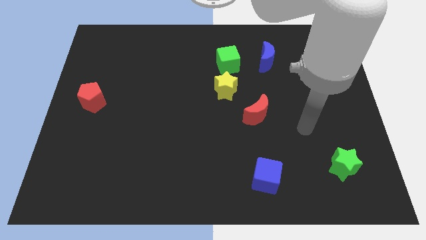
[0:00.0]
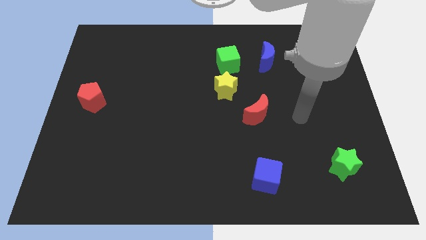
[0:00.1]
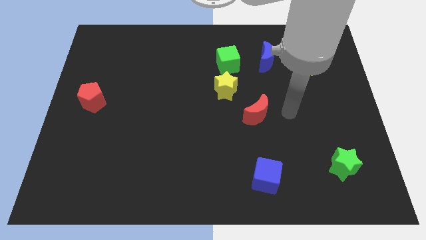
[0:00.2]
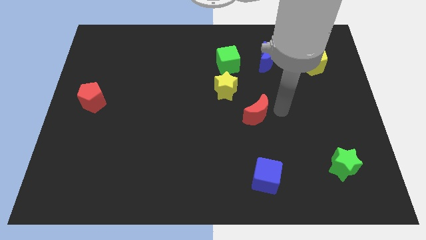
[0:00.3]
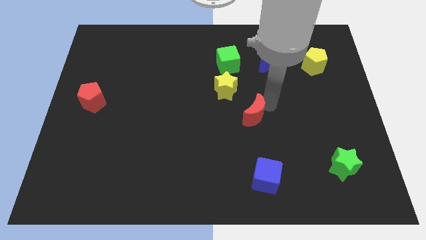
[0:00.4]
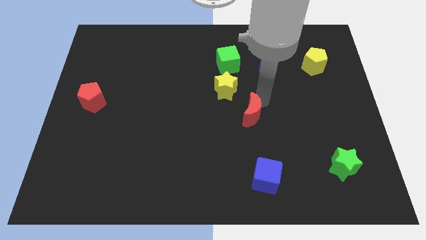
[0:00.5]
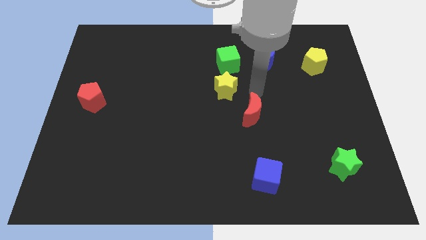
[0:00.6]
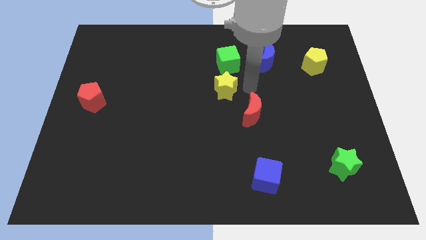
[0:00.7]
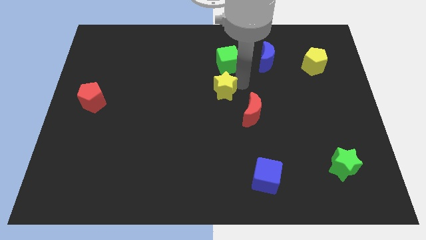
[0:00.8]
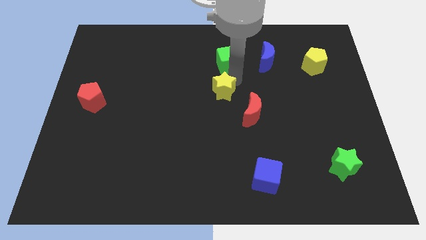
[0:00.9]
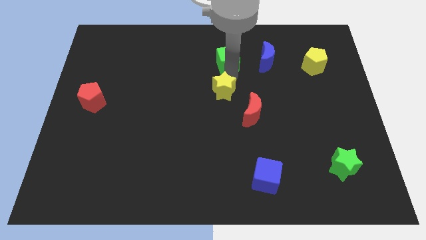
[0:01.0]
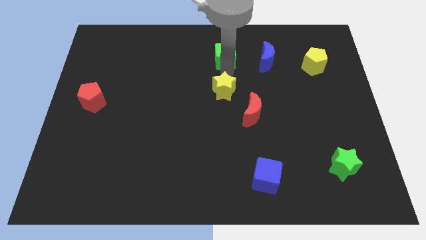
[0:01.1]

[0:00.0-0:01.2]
move the yellow star away from the green cube

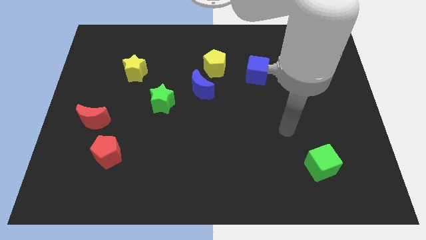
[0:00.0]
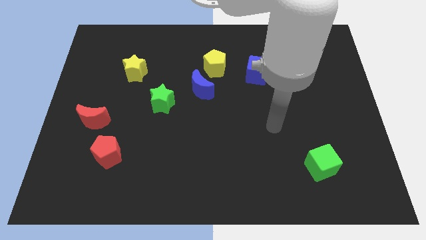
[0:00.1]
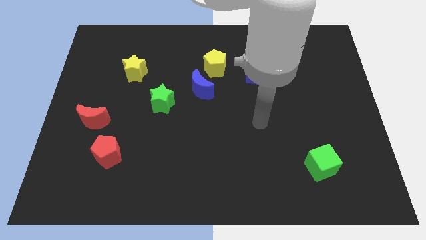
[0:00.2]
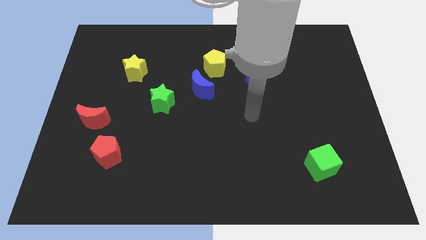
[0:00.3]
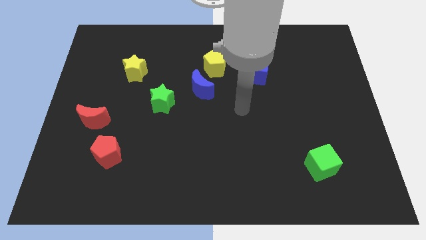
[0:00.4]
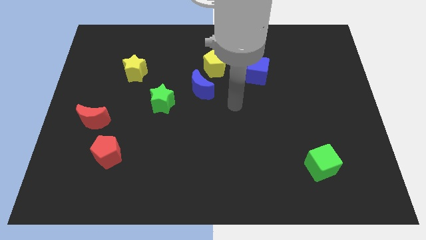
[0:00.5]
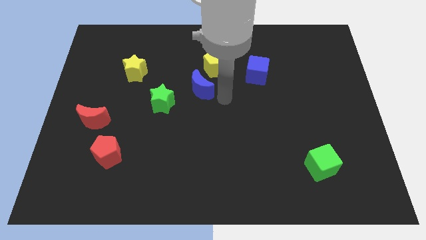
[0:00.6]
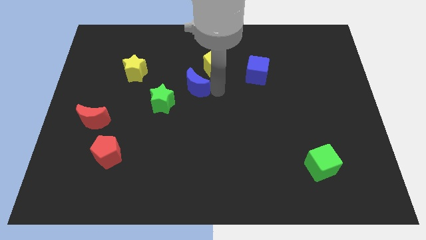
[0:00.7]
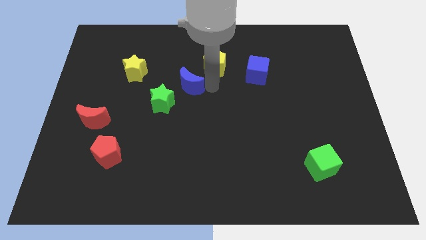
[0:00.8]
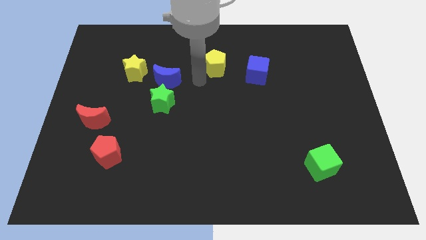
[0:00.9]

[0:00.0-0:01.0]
pull the yellow pentagon apart from the blue moon

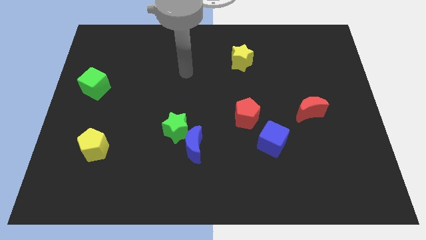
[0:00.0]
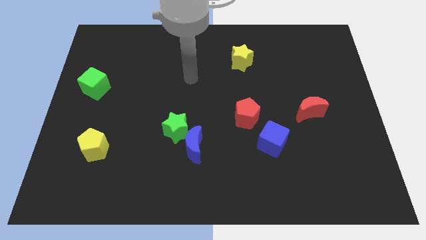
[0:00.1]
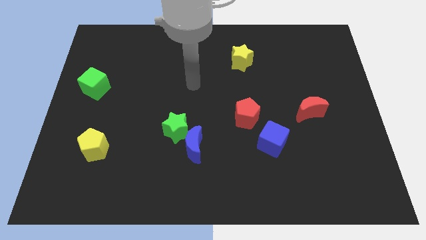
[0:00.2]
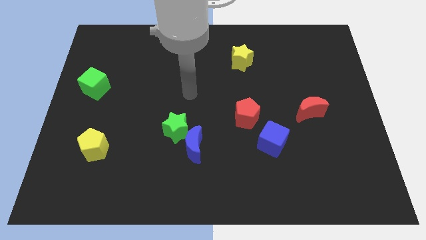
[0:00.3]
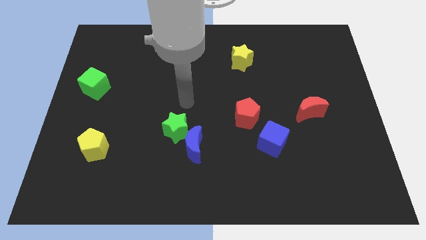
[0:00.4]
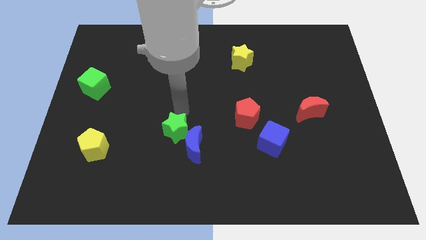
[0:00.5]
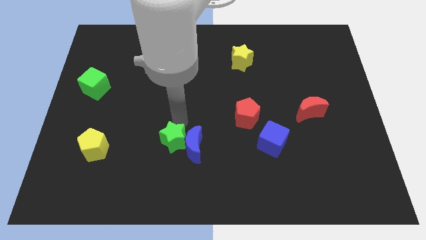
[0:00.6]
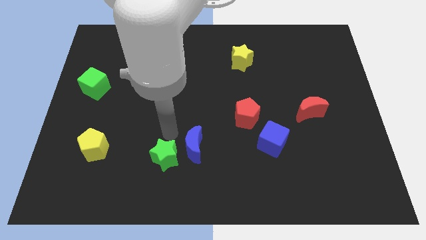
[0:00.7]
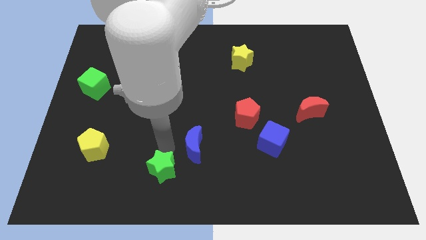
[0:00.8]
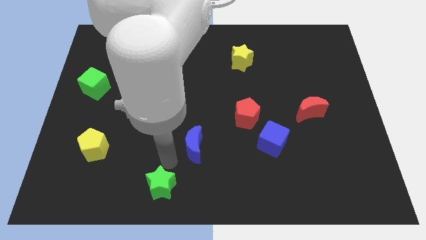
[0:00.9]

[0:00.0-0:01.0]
pull the blue moon apart from the green star

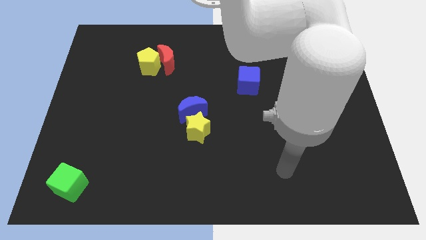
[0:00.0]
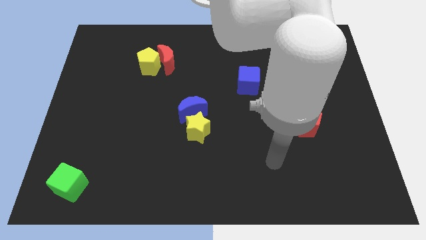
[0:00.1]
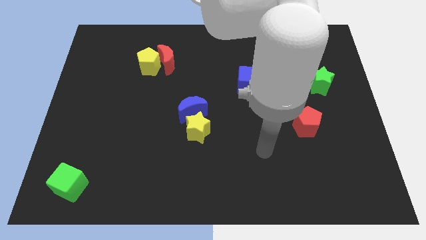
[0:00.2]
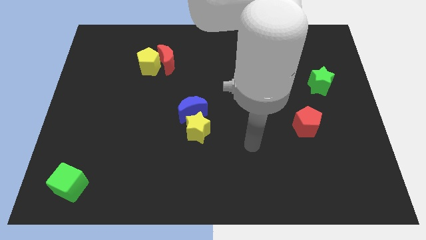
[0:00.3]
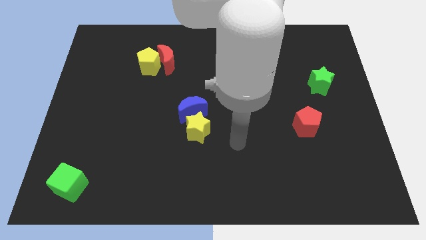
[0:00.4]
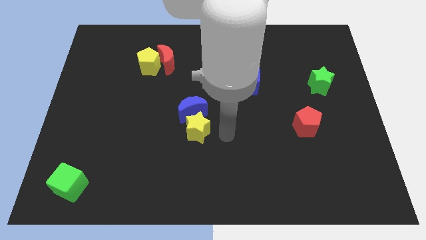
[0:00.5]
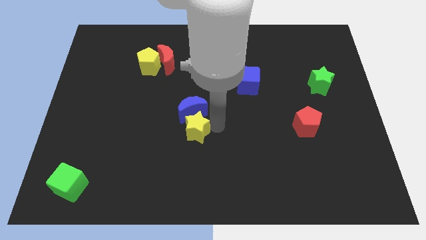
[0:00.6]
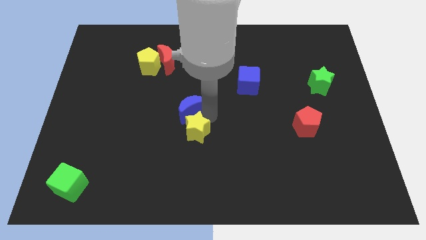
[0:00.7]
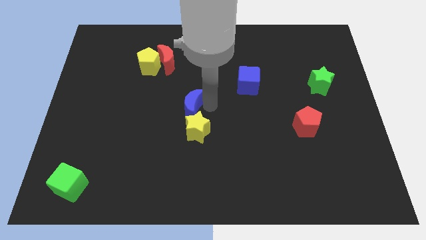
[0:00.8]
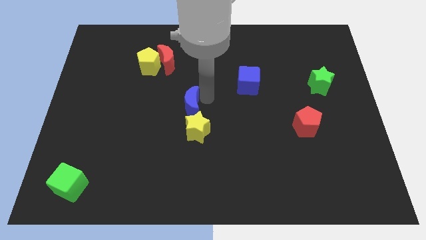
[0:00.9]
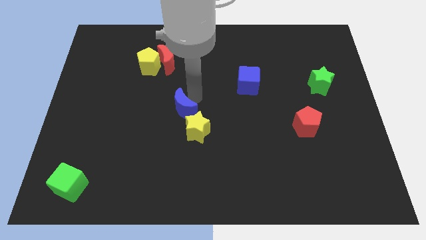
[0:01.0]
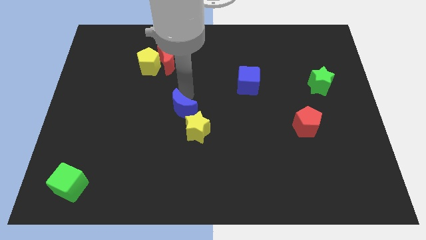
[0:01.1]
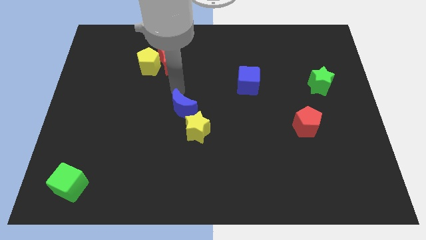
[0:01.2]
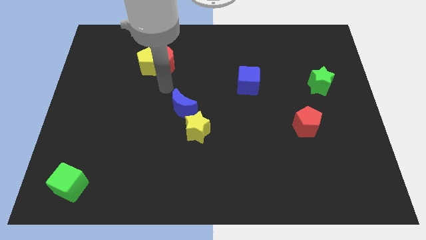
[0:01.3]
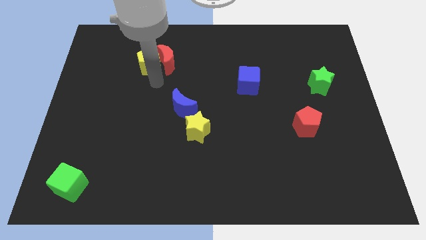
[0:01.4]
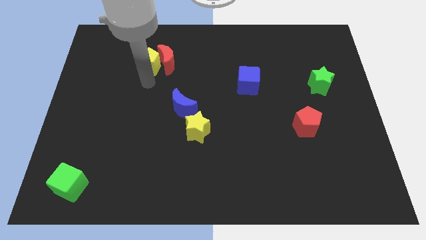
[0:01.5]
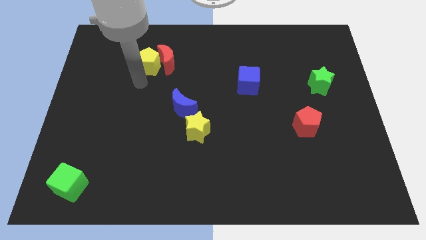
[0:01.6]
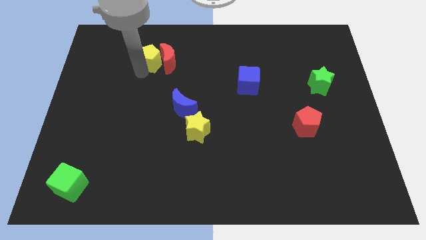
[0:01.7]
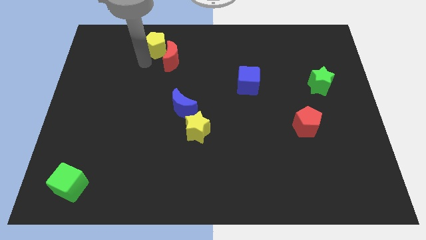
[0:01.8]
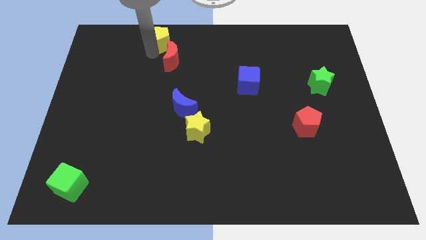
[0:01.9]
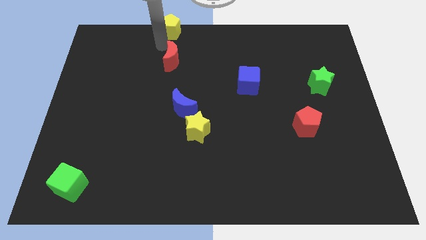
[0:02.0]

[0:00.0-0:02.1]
separate the red moon from the yellow pentagon

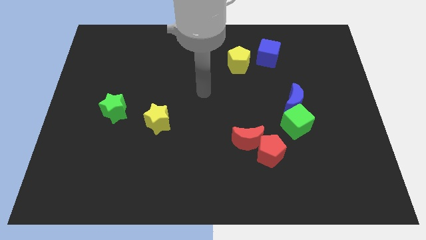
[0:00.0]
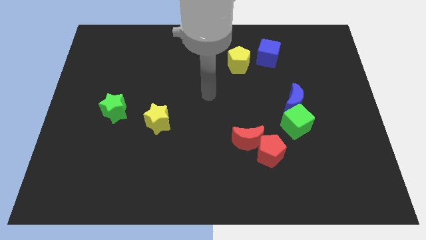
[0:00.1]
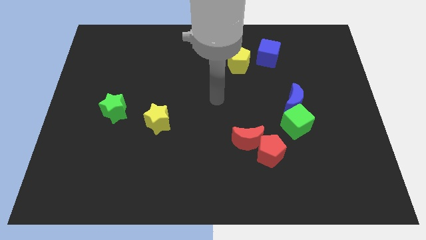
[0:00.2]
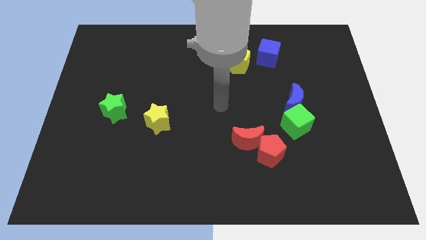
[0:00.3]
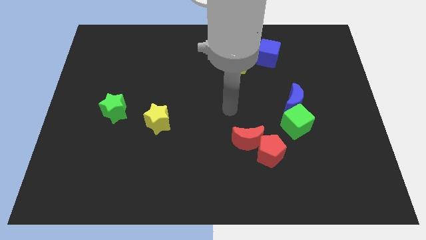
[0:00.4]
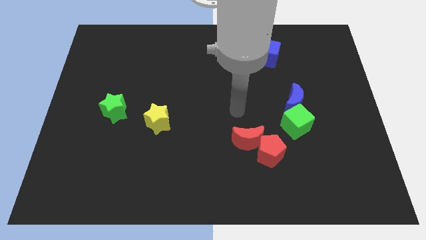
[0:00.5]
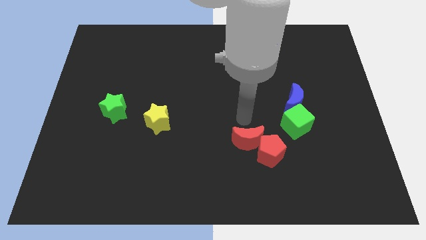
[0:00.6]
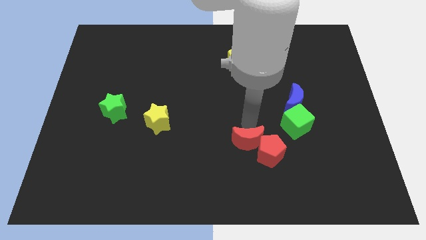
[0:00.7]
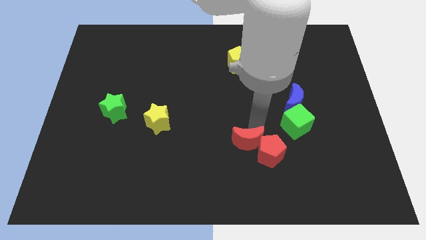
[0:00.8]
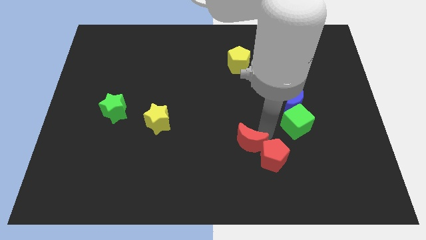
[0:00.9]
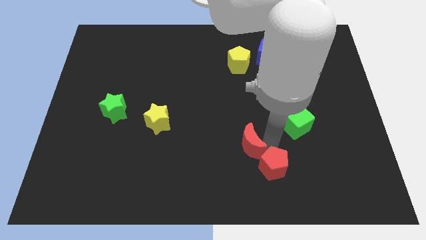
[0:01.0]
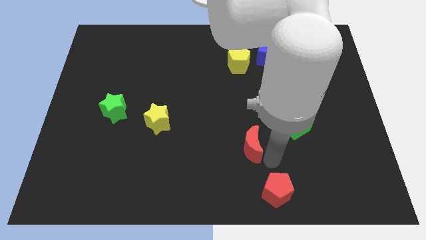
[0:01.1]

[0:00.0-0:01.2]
separate the red moon from the red pentagon

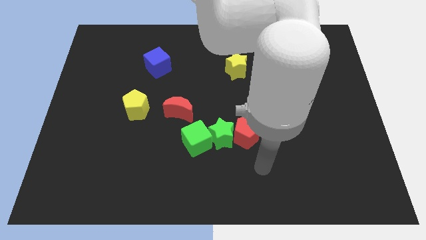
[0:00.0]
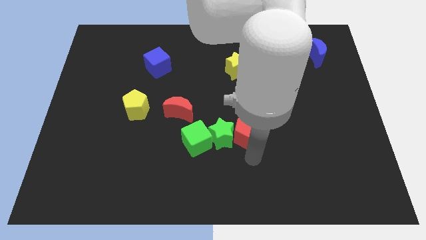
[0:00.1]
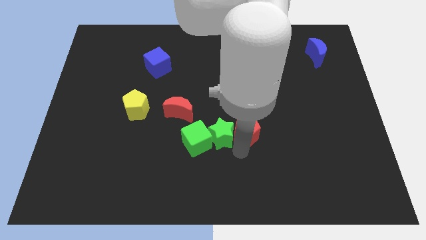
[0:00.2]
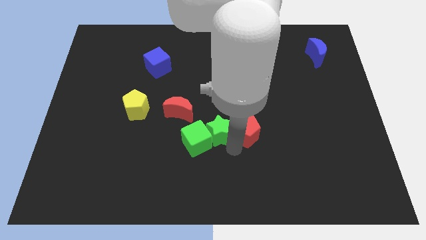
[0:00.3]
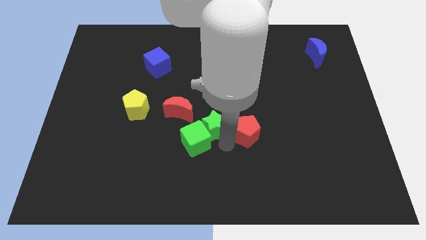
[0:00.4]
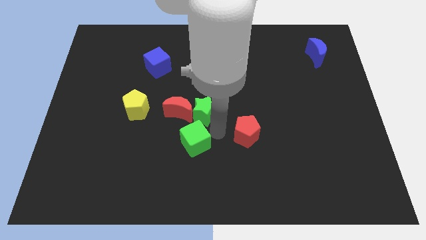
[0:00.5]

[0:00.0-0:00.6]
separate the red pentagon from the green star

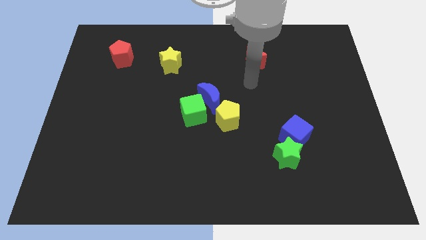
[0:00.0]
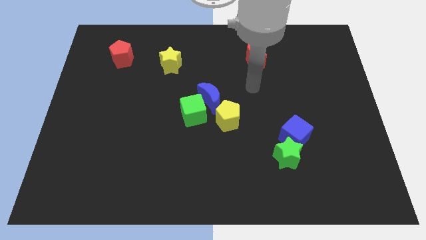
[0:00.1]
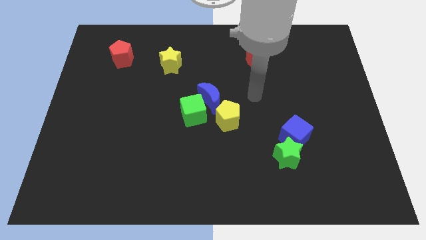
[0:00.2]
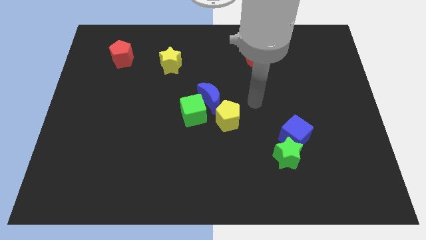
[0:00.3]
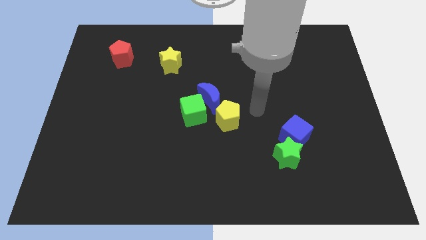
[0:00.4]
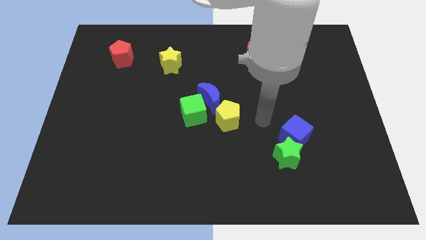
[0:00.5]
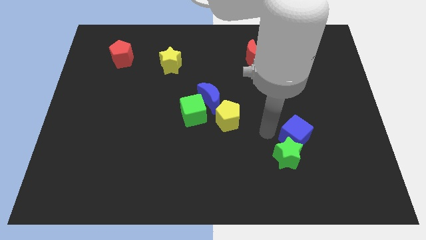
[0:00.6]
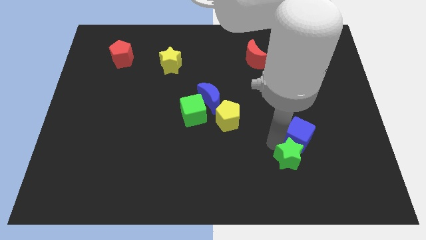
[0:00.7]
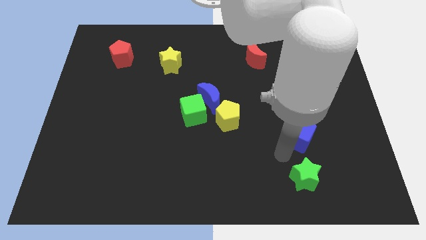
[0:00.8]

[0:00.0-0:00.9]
pull the blue cube apart from the green star

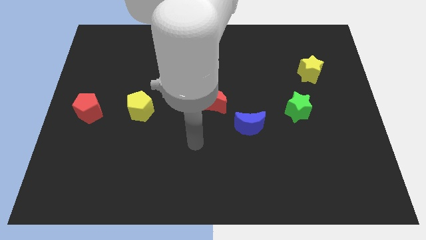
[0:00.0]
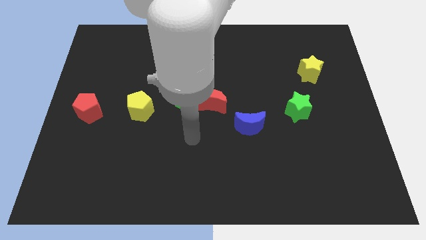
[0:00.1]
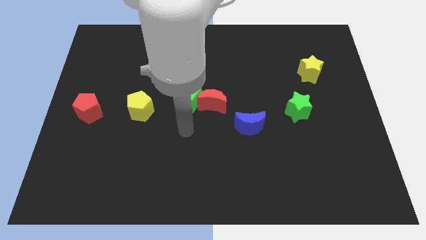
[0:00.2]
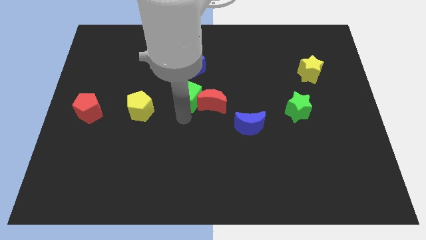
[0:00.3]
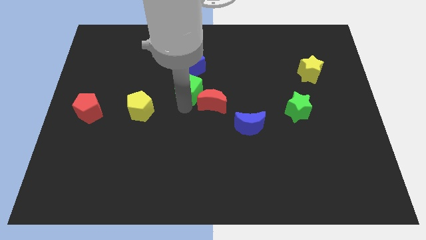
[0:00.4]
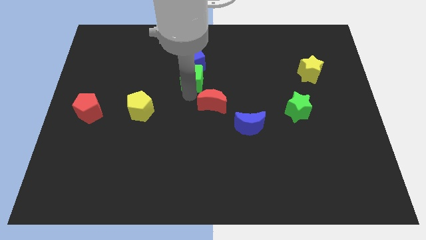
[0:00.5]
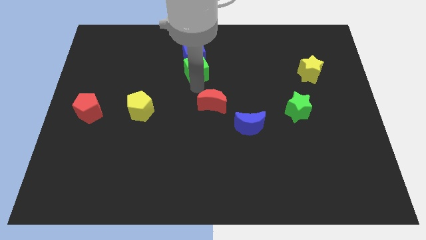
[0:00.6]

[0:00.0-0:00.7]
separate the red moon from the green cube

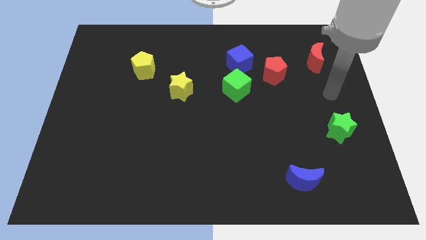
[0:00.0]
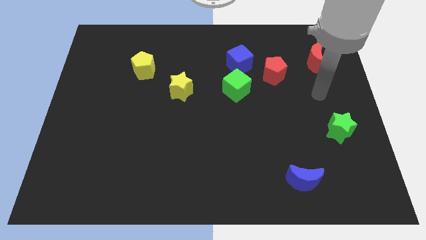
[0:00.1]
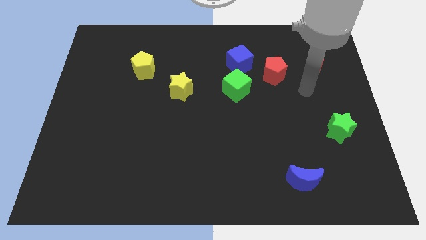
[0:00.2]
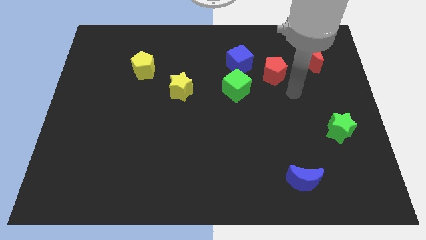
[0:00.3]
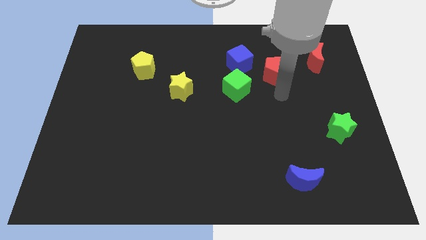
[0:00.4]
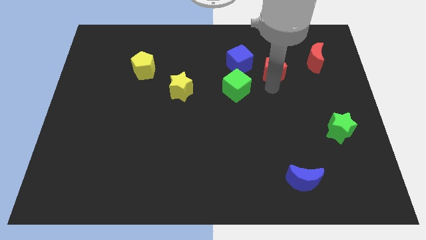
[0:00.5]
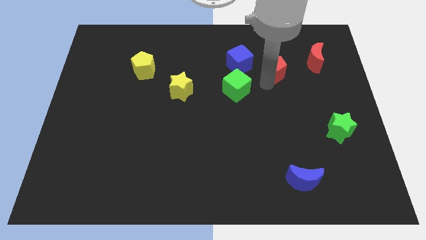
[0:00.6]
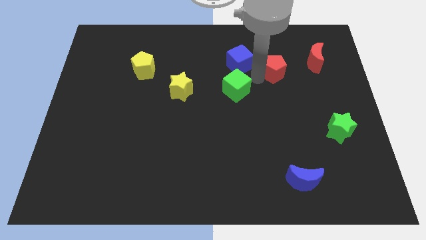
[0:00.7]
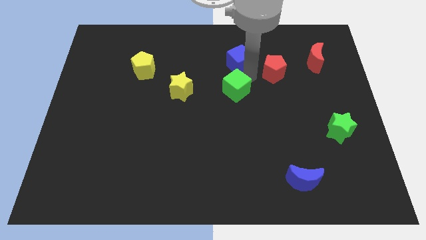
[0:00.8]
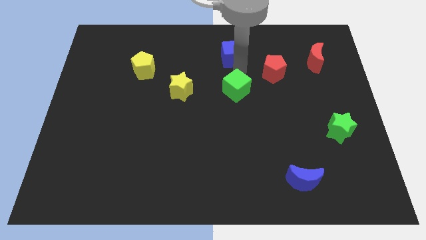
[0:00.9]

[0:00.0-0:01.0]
pull the green cube apart from the blue cube
